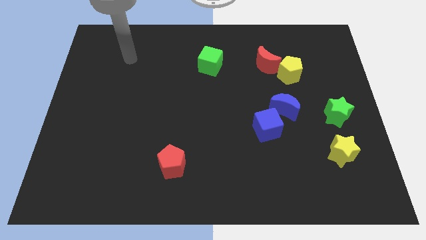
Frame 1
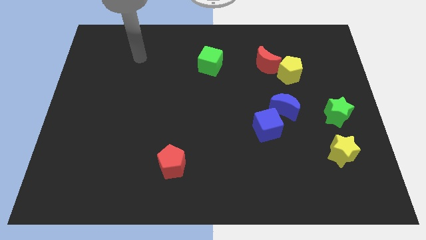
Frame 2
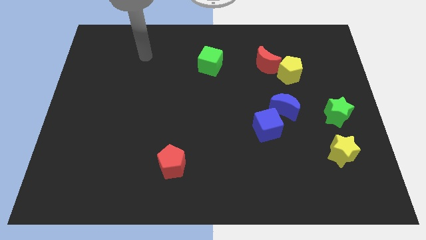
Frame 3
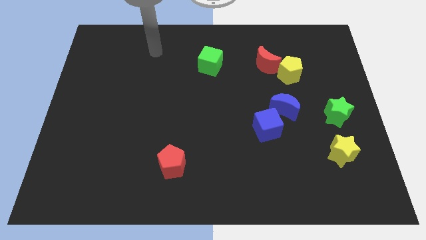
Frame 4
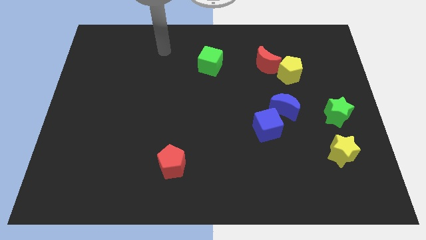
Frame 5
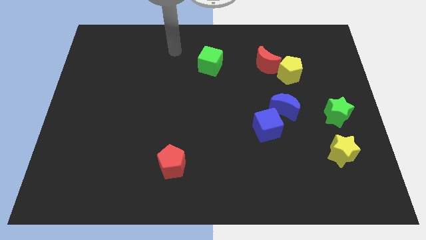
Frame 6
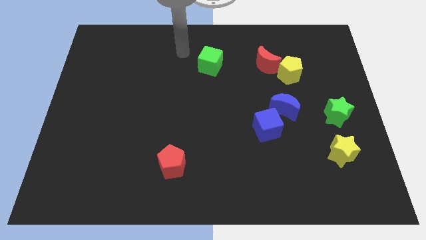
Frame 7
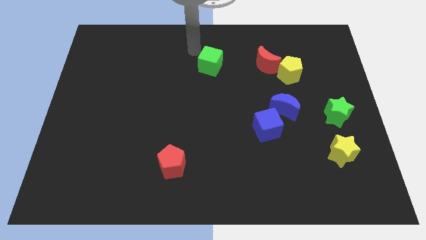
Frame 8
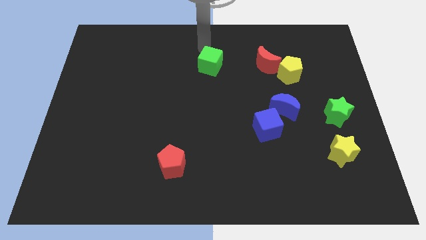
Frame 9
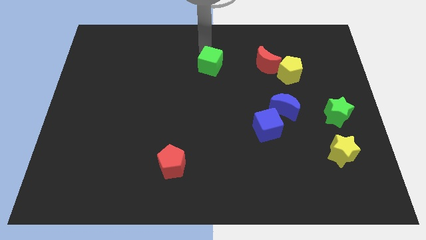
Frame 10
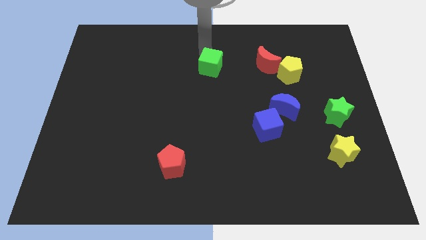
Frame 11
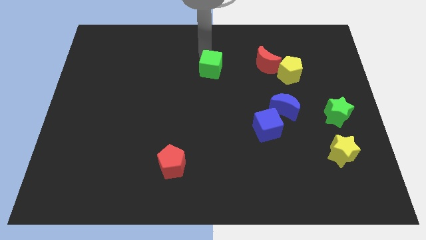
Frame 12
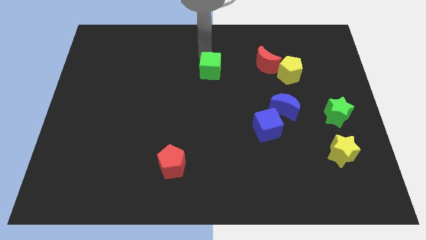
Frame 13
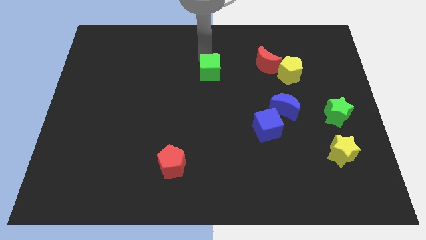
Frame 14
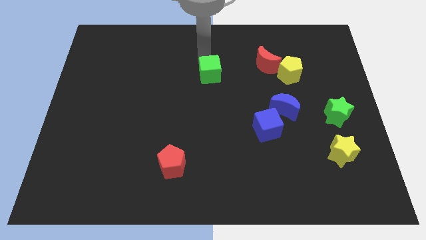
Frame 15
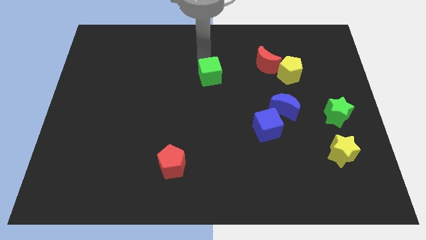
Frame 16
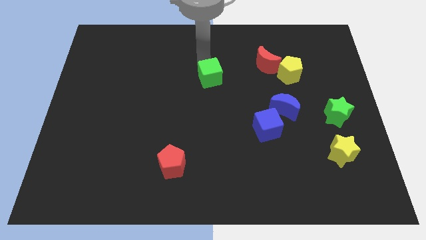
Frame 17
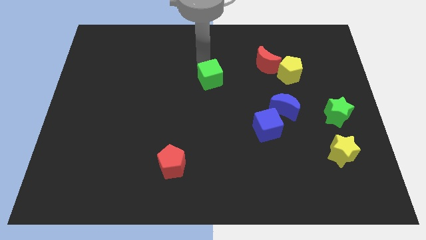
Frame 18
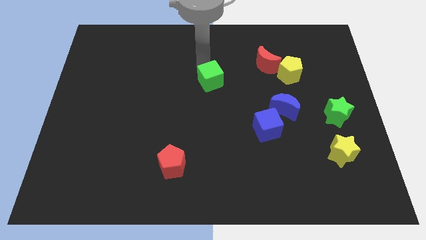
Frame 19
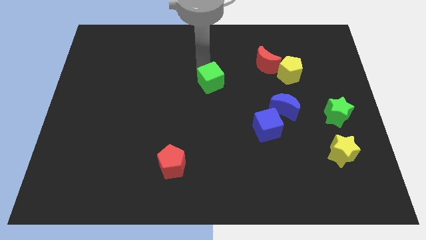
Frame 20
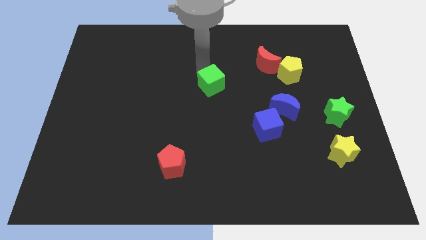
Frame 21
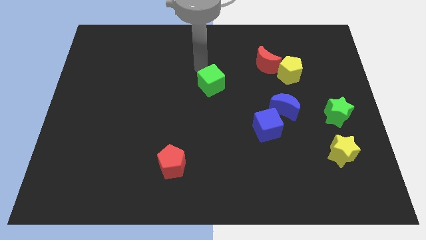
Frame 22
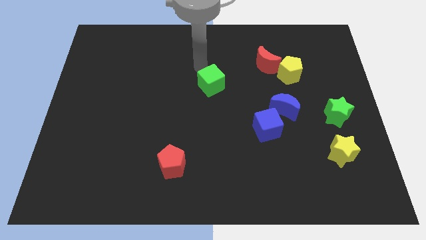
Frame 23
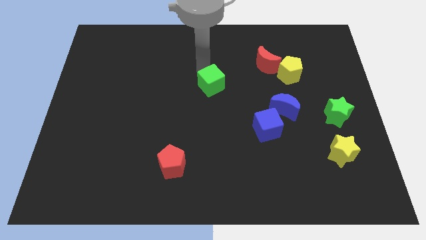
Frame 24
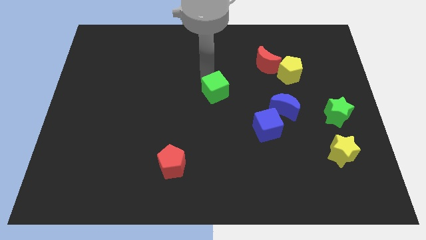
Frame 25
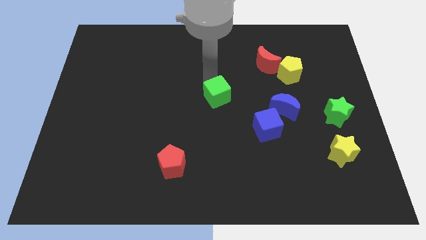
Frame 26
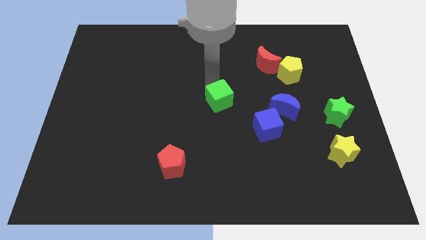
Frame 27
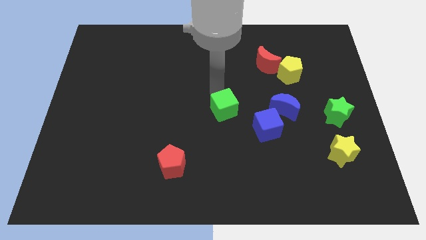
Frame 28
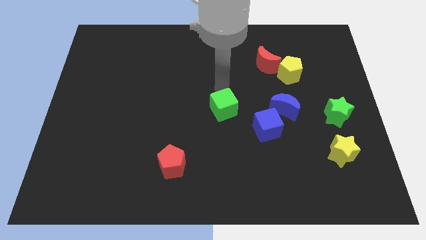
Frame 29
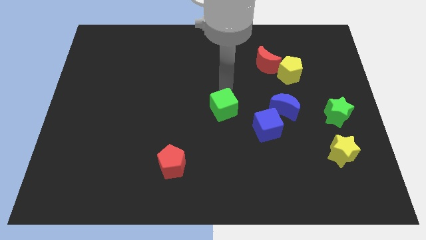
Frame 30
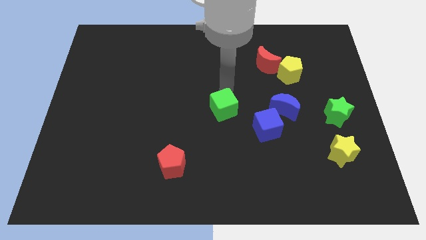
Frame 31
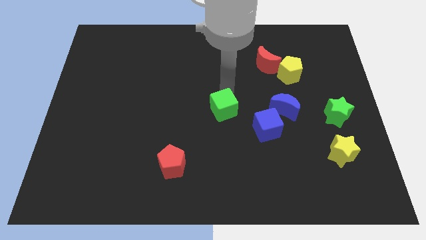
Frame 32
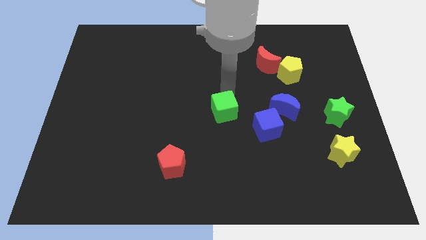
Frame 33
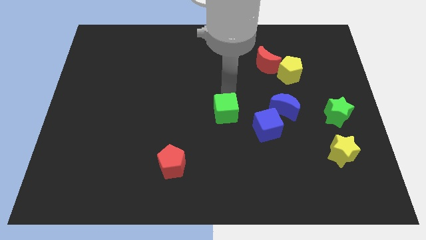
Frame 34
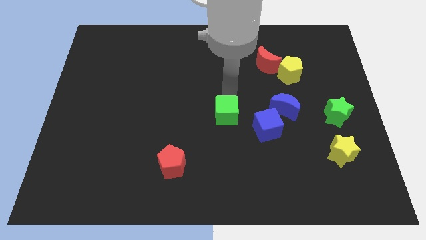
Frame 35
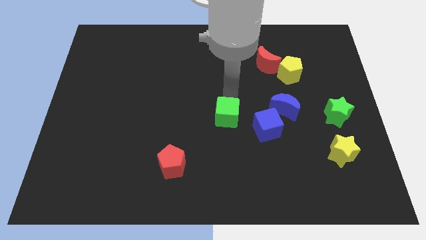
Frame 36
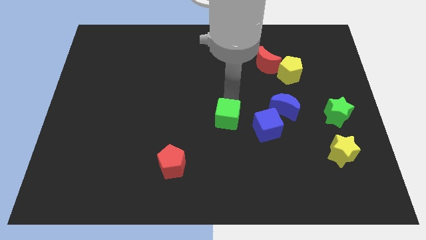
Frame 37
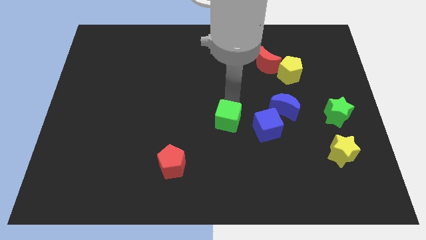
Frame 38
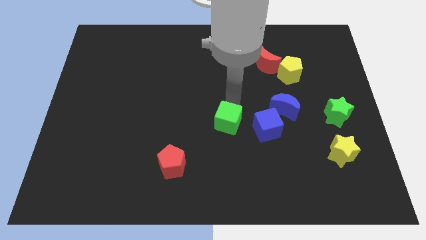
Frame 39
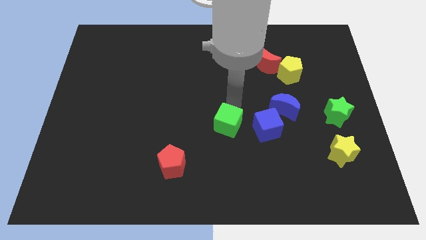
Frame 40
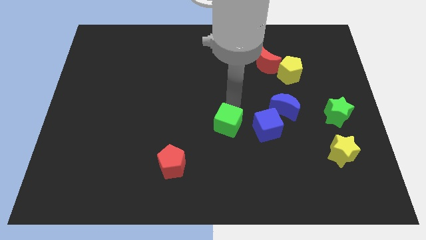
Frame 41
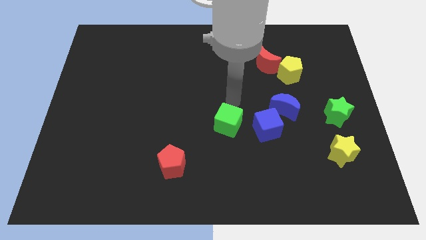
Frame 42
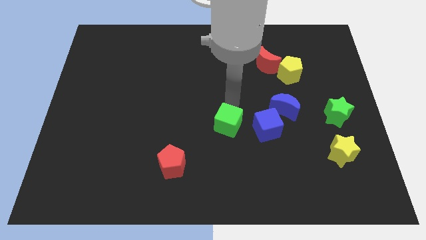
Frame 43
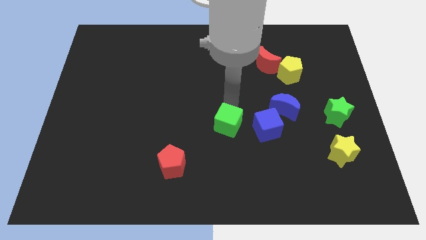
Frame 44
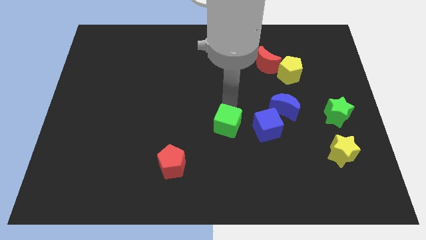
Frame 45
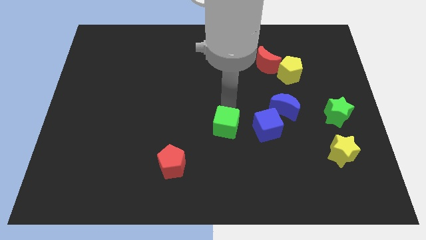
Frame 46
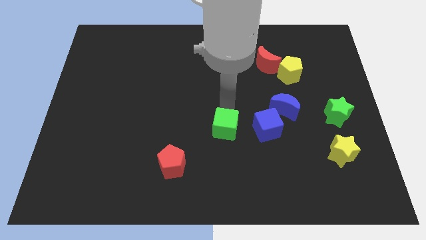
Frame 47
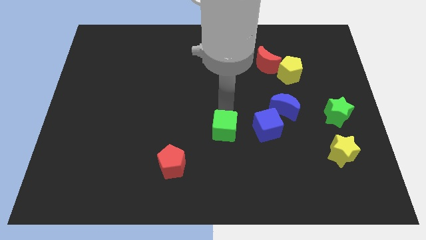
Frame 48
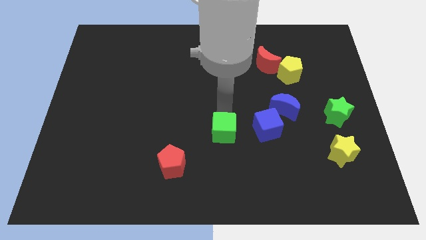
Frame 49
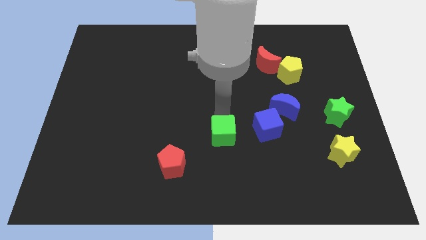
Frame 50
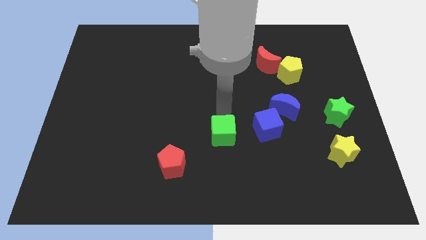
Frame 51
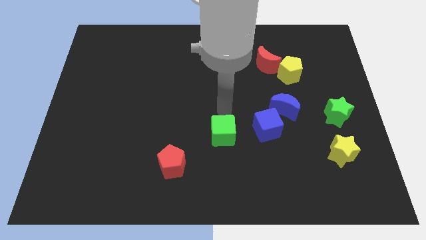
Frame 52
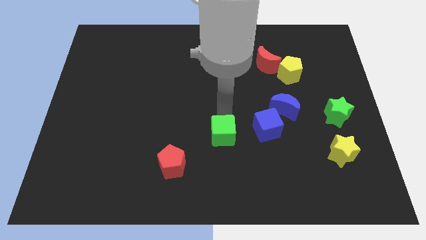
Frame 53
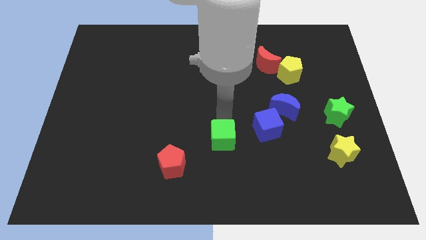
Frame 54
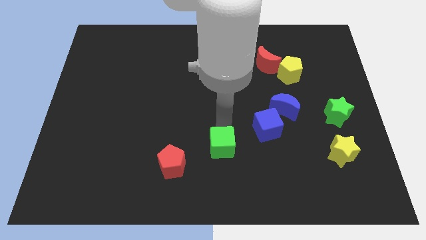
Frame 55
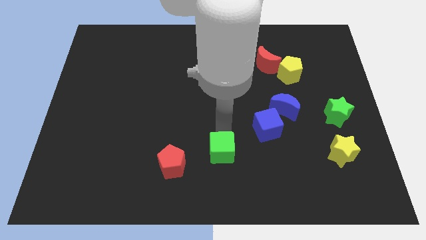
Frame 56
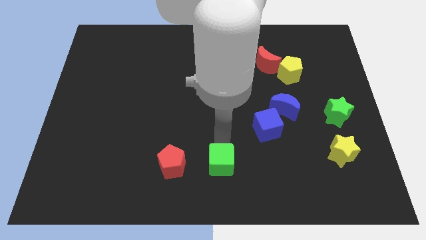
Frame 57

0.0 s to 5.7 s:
slide the green cube to the bottom side

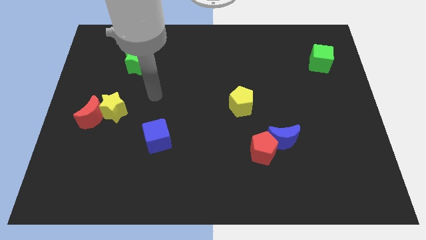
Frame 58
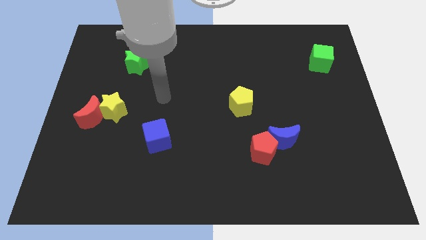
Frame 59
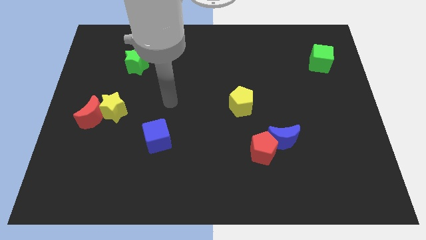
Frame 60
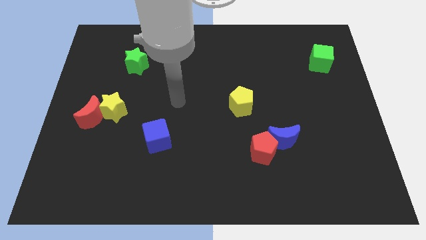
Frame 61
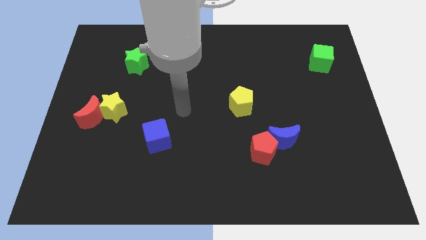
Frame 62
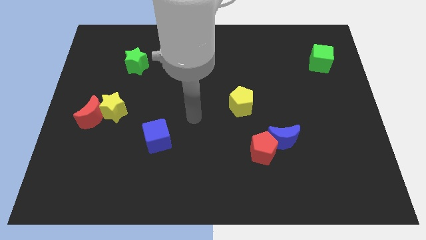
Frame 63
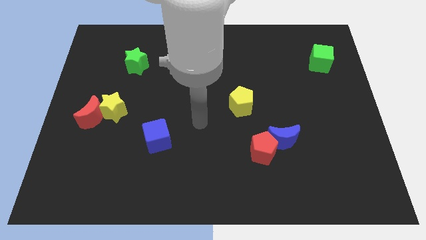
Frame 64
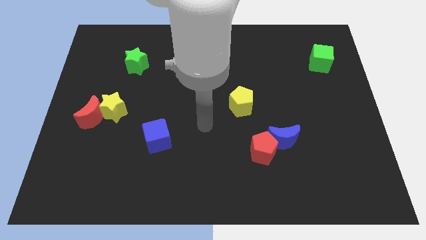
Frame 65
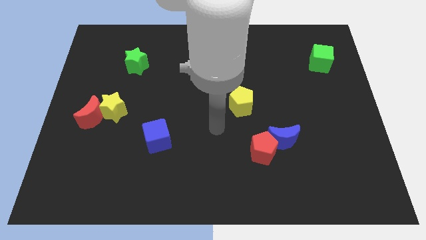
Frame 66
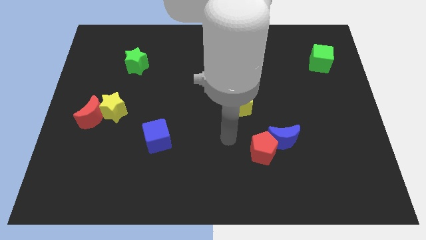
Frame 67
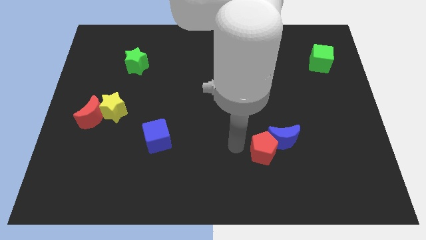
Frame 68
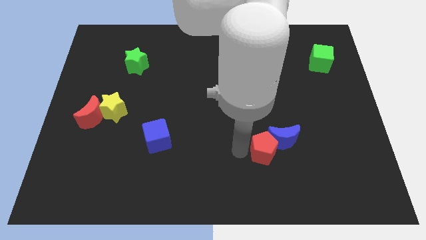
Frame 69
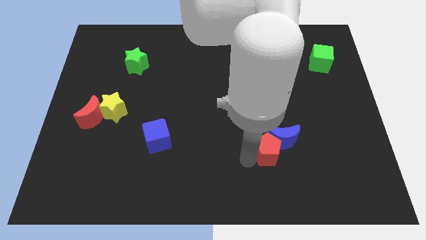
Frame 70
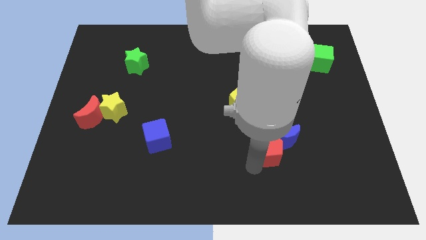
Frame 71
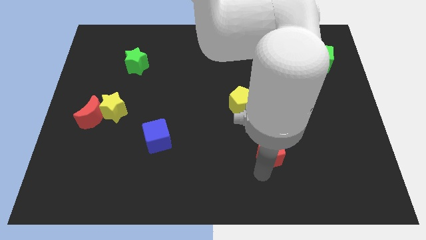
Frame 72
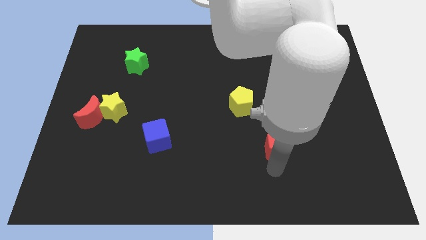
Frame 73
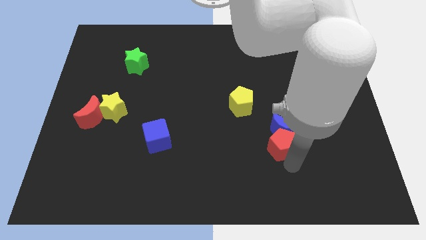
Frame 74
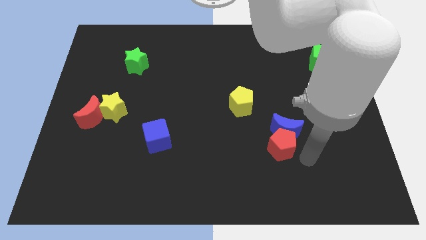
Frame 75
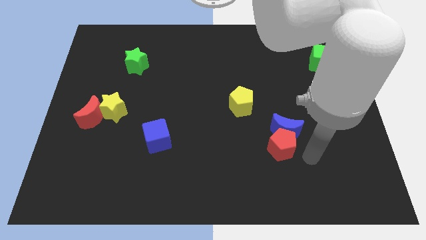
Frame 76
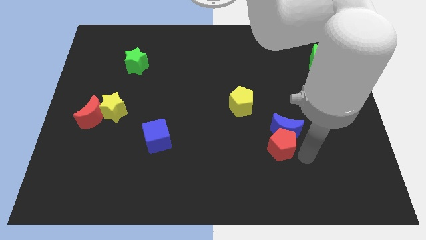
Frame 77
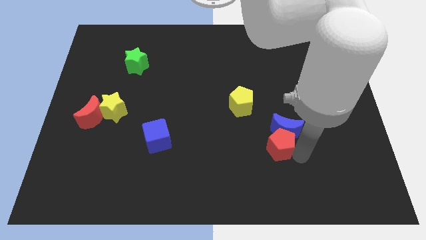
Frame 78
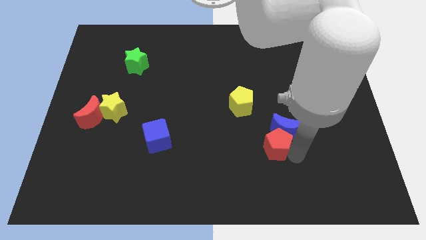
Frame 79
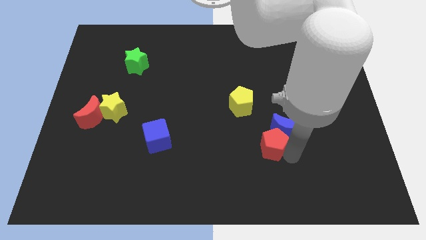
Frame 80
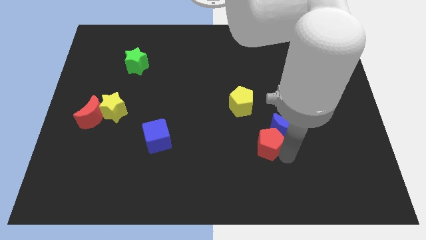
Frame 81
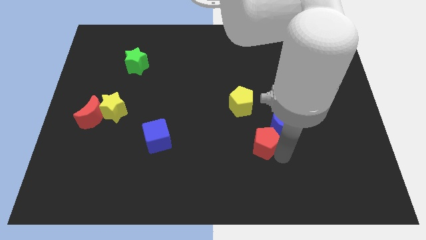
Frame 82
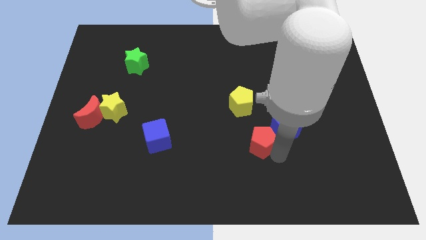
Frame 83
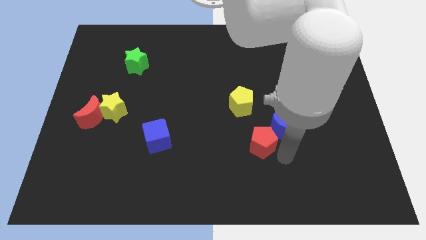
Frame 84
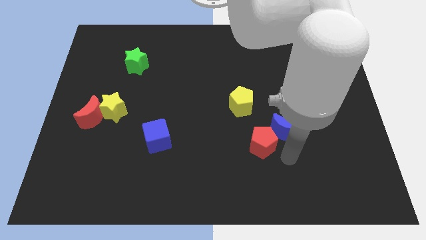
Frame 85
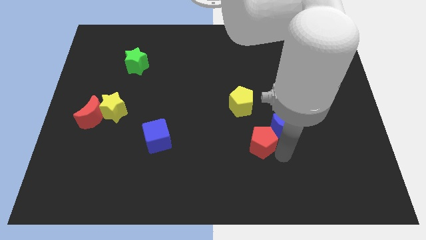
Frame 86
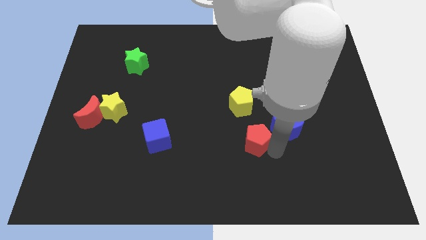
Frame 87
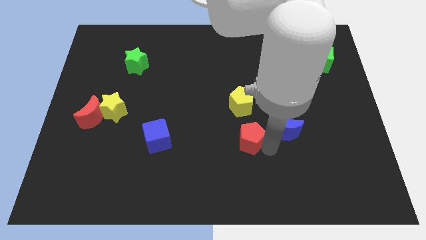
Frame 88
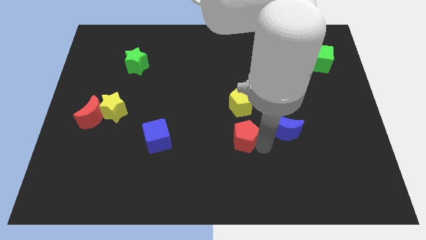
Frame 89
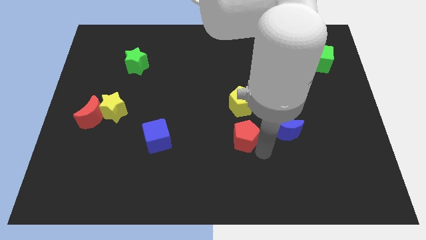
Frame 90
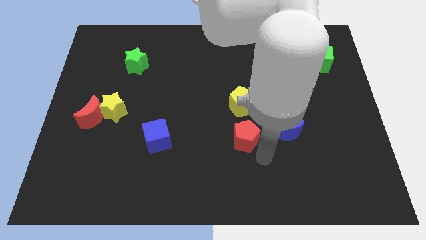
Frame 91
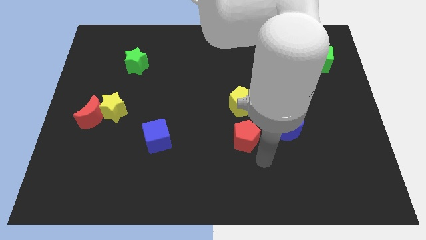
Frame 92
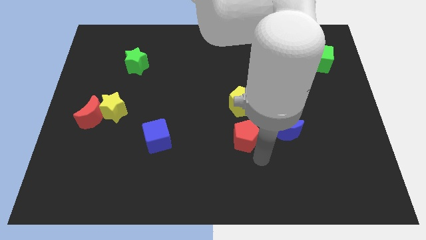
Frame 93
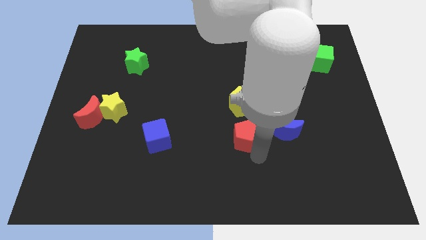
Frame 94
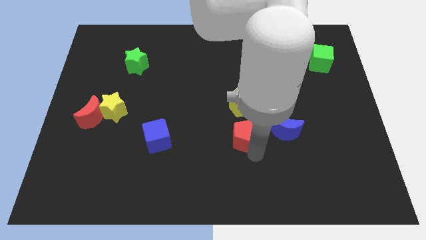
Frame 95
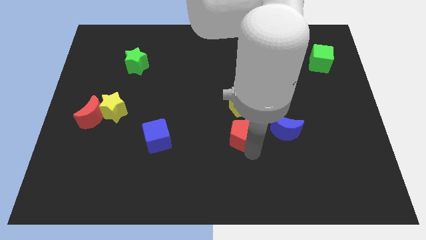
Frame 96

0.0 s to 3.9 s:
slide the red pentagon to the middle of the board
